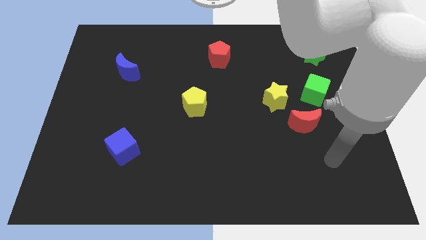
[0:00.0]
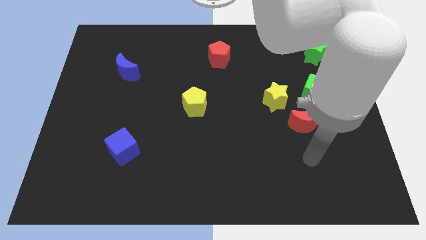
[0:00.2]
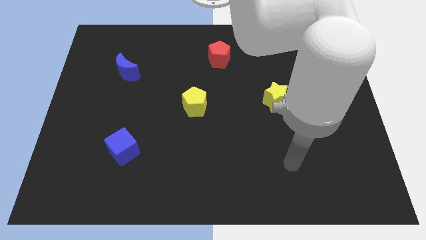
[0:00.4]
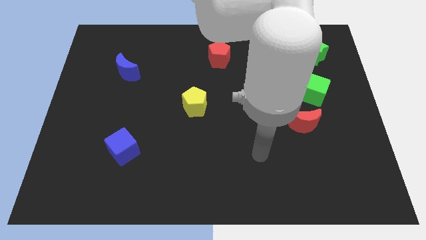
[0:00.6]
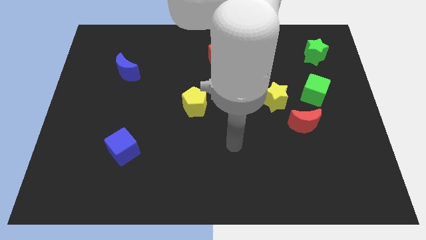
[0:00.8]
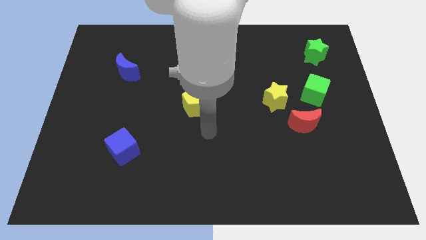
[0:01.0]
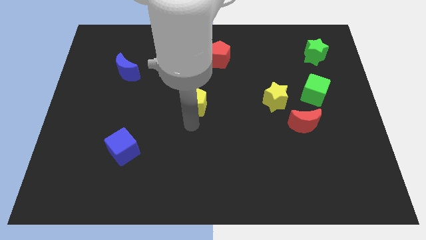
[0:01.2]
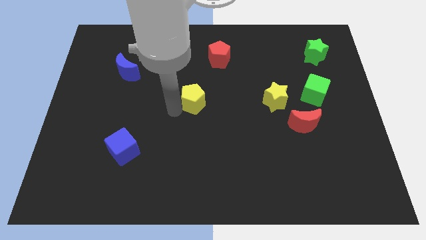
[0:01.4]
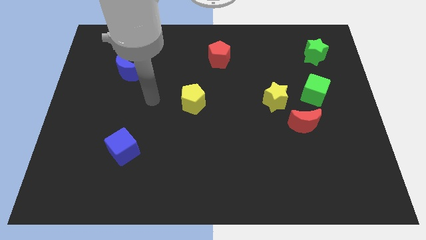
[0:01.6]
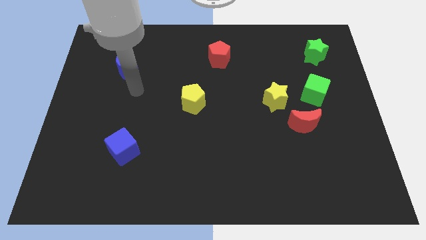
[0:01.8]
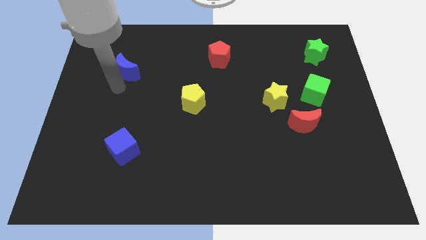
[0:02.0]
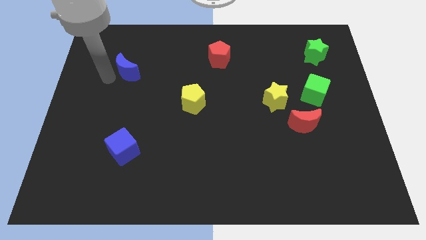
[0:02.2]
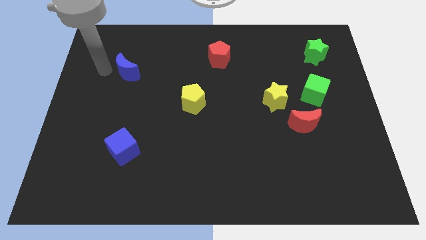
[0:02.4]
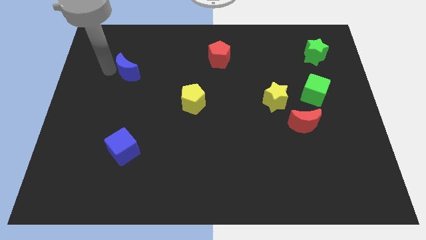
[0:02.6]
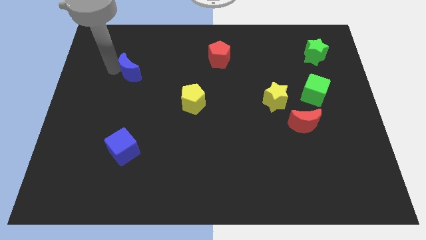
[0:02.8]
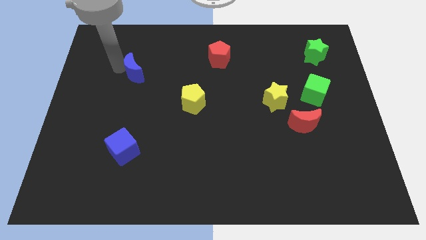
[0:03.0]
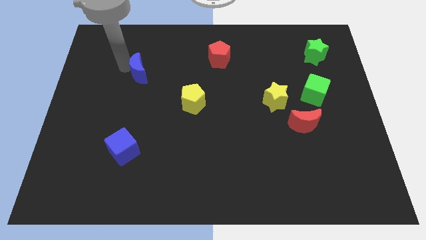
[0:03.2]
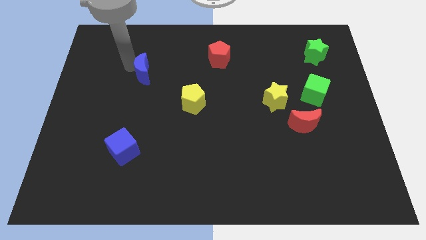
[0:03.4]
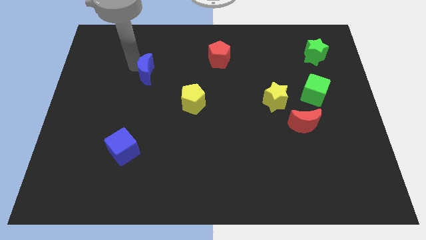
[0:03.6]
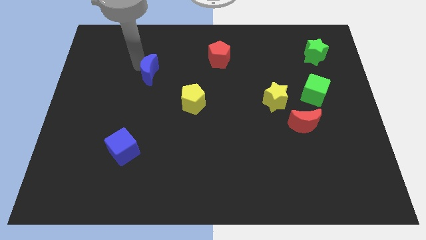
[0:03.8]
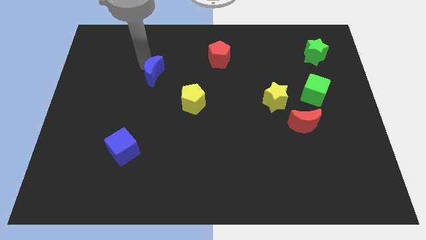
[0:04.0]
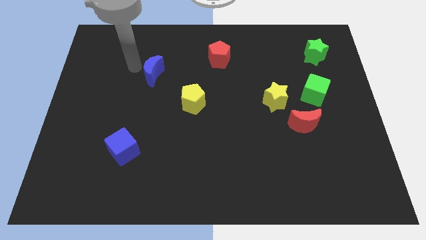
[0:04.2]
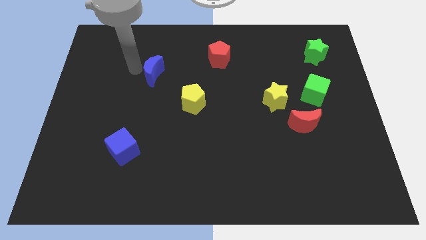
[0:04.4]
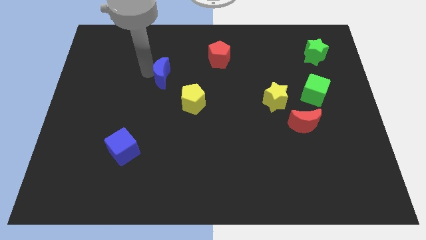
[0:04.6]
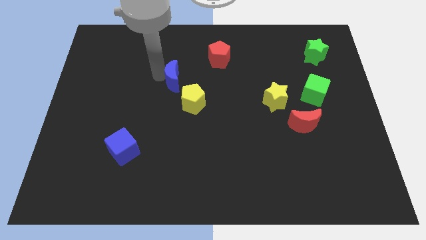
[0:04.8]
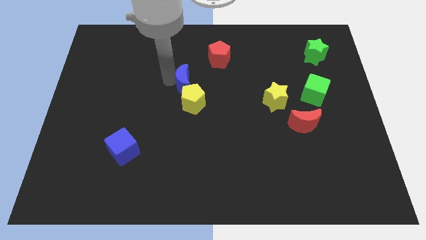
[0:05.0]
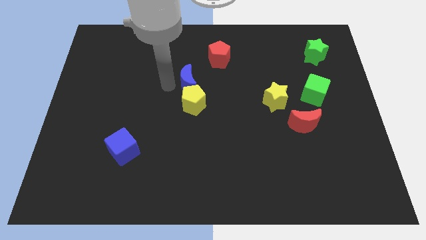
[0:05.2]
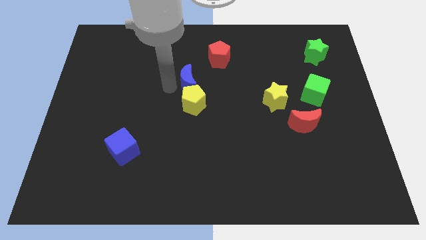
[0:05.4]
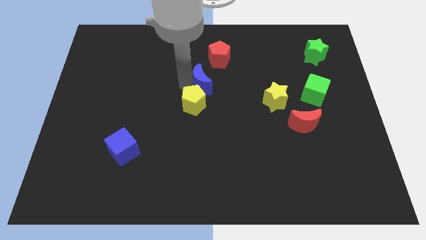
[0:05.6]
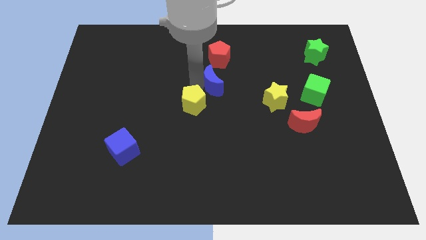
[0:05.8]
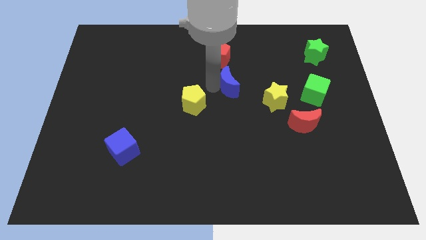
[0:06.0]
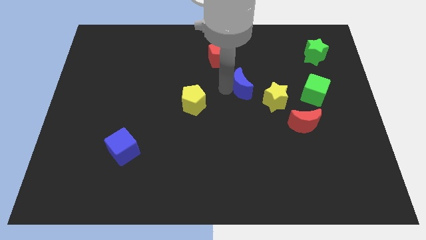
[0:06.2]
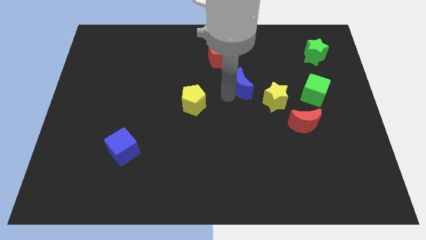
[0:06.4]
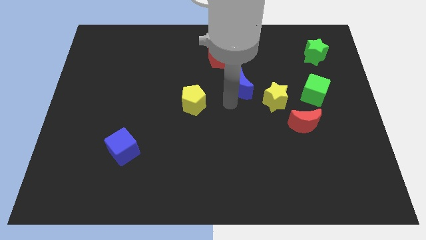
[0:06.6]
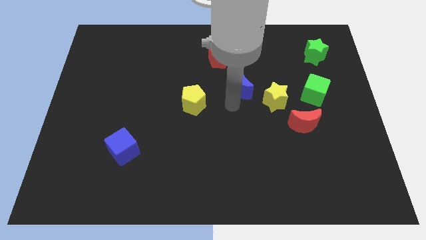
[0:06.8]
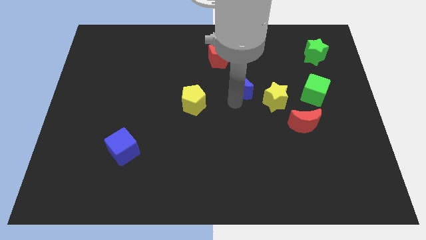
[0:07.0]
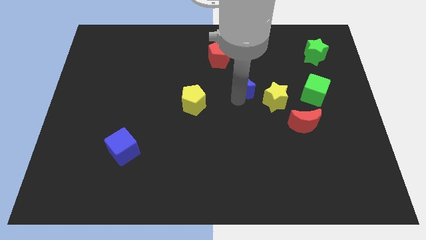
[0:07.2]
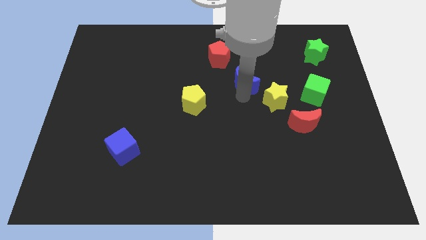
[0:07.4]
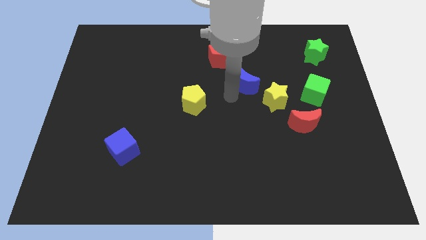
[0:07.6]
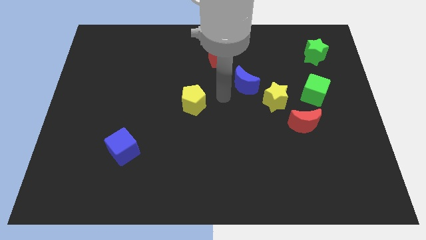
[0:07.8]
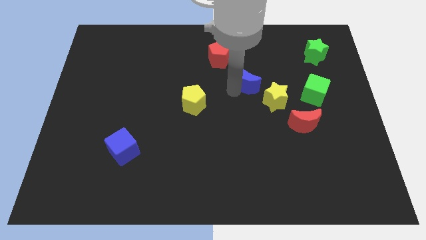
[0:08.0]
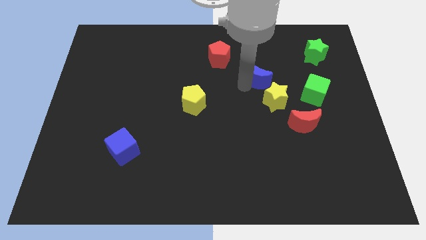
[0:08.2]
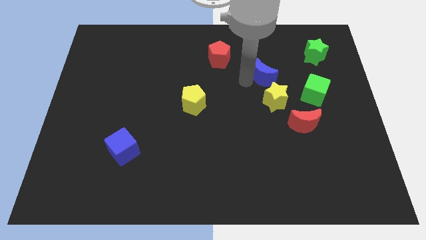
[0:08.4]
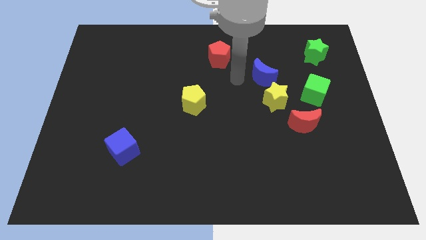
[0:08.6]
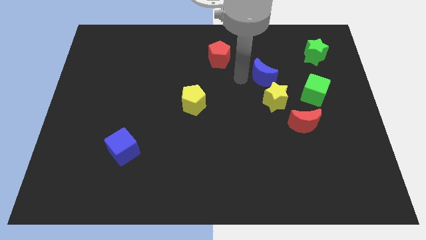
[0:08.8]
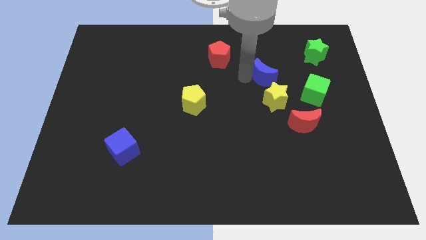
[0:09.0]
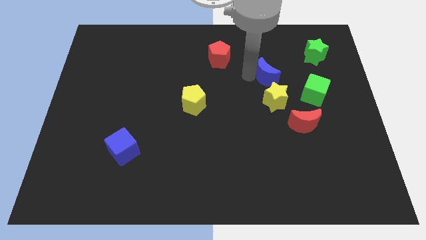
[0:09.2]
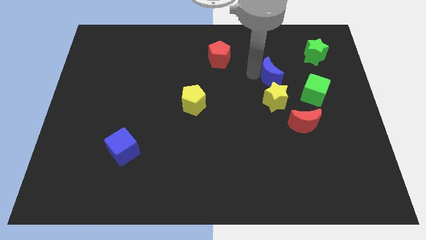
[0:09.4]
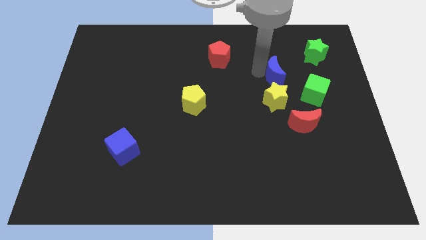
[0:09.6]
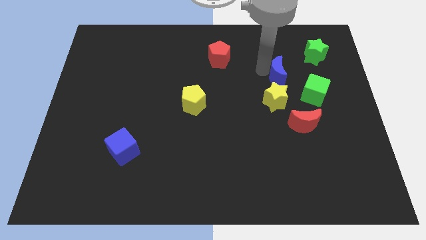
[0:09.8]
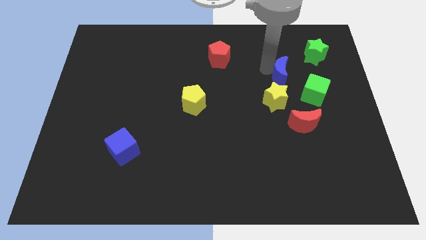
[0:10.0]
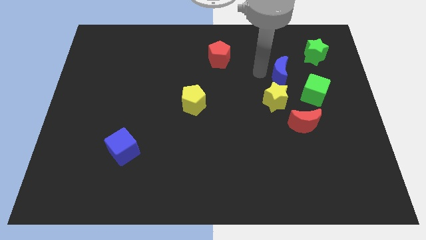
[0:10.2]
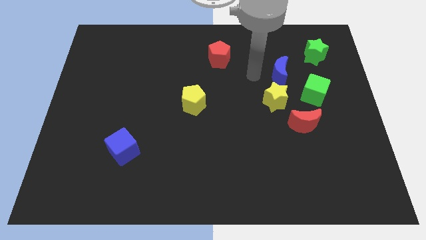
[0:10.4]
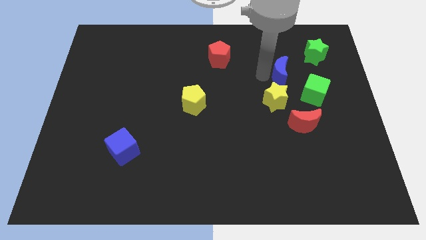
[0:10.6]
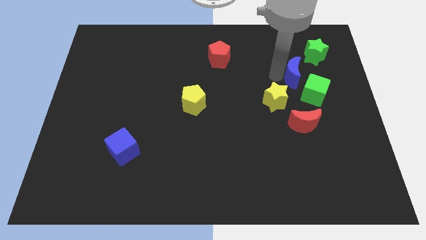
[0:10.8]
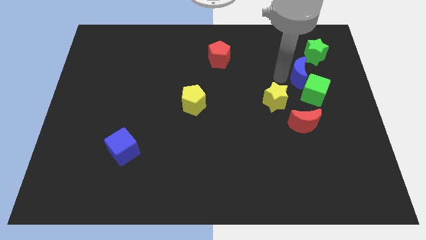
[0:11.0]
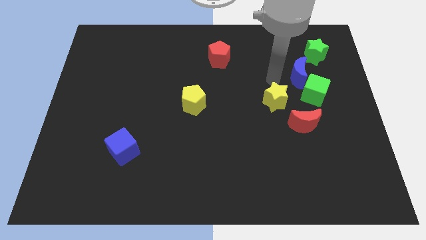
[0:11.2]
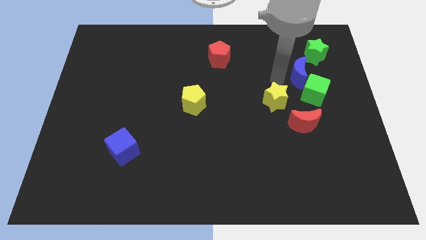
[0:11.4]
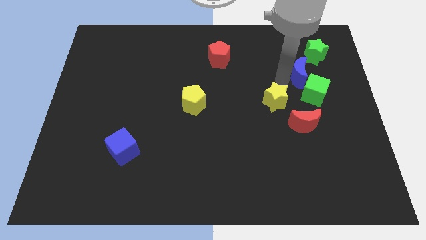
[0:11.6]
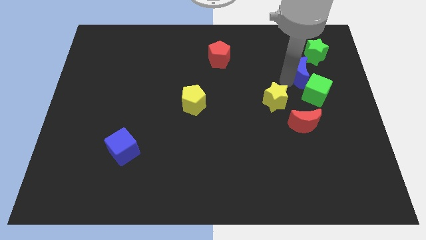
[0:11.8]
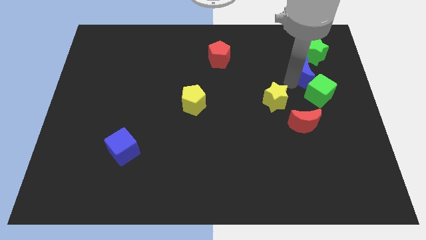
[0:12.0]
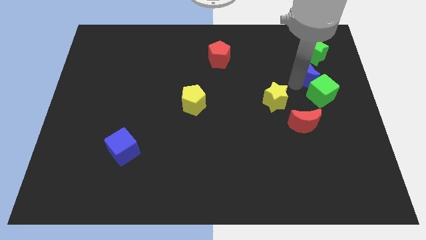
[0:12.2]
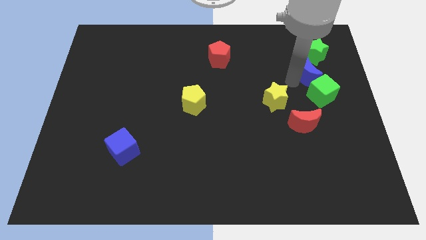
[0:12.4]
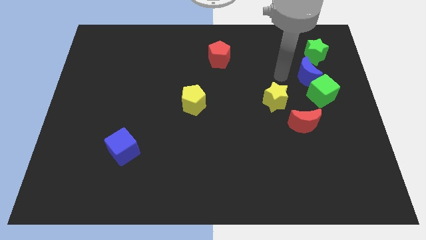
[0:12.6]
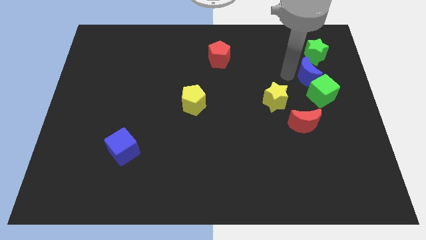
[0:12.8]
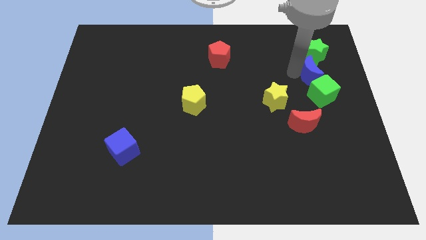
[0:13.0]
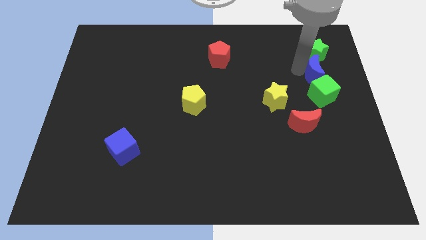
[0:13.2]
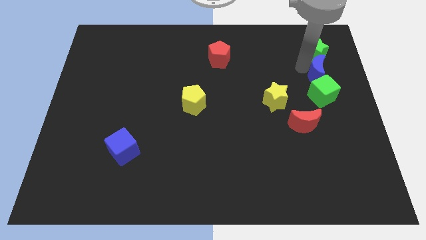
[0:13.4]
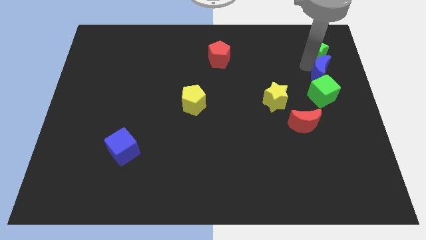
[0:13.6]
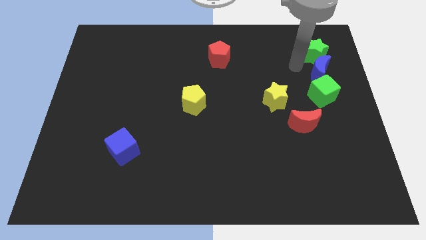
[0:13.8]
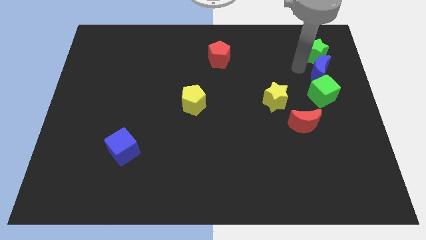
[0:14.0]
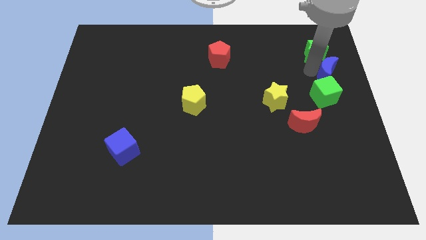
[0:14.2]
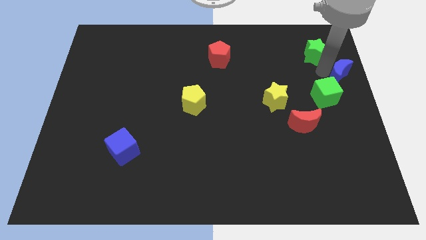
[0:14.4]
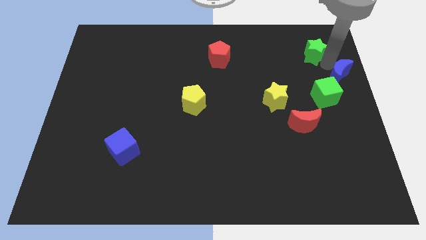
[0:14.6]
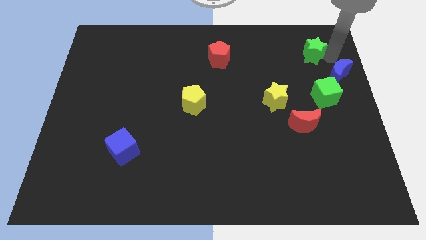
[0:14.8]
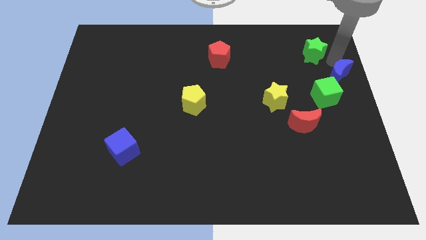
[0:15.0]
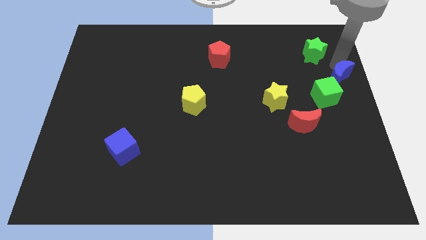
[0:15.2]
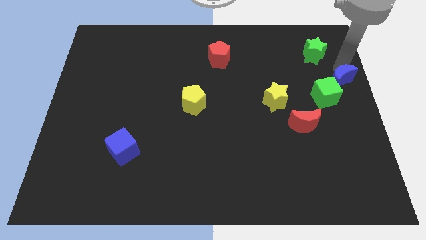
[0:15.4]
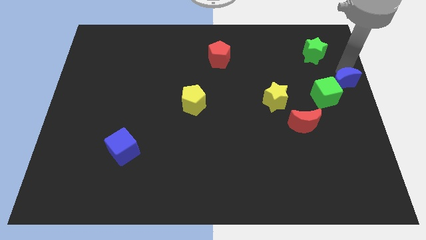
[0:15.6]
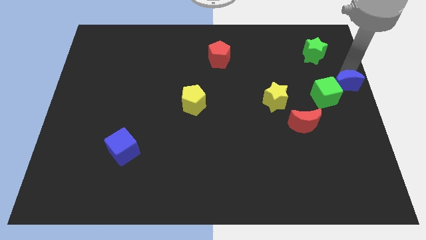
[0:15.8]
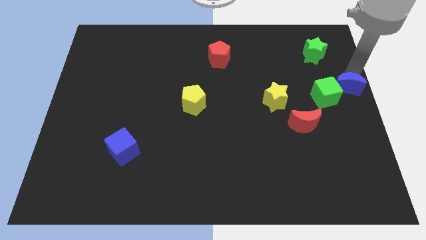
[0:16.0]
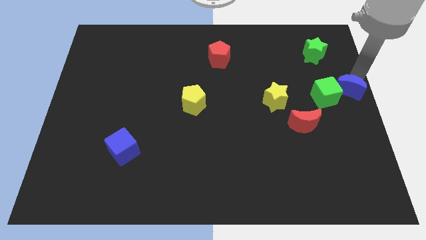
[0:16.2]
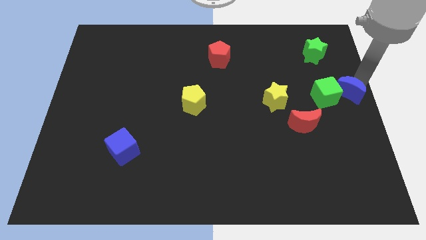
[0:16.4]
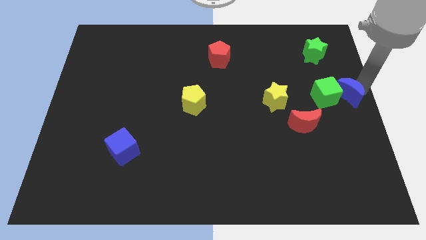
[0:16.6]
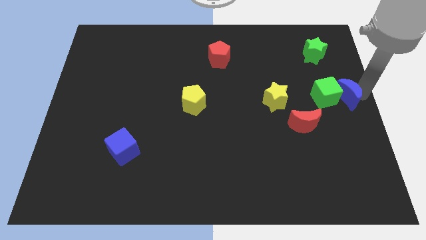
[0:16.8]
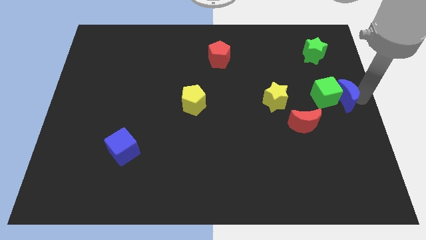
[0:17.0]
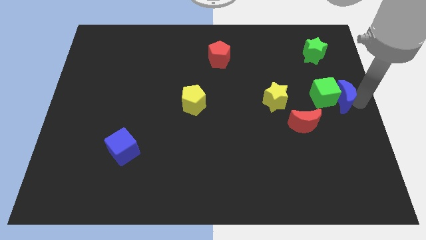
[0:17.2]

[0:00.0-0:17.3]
slide the blue moon to the right of the yellow star
